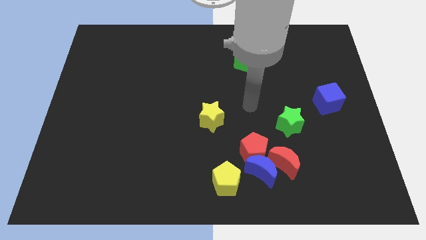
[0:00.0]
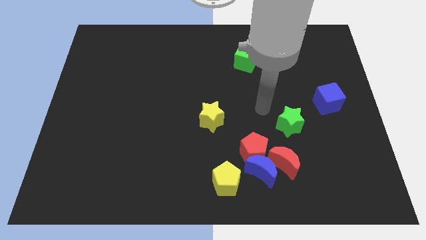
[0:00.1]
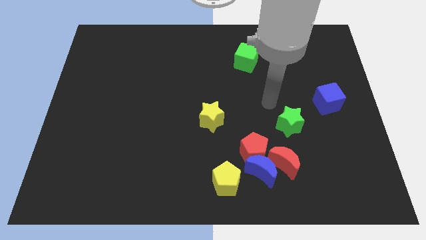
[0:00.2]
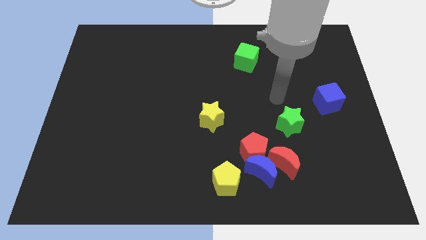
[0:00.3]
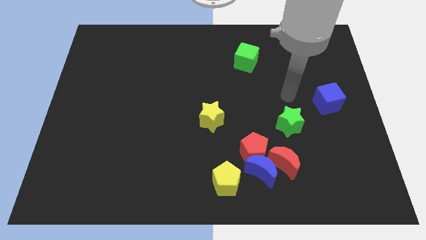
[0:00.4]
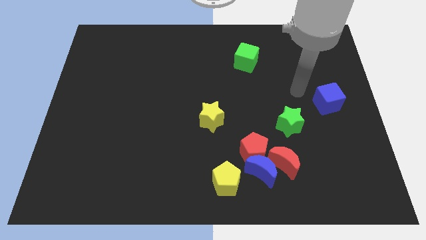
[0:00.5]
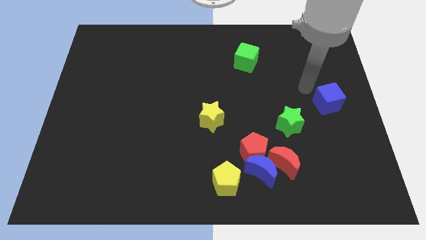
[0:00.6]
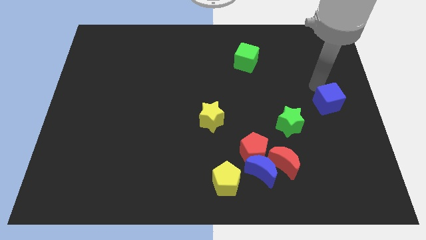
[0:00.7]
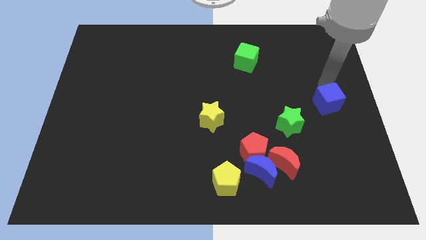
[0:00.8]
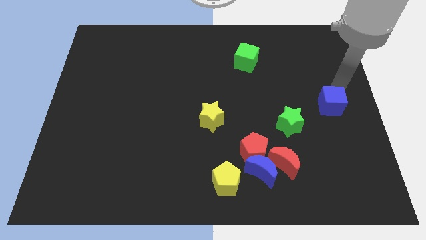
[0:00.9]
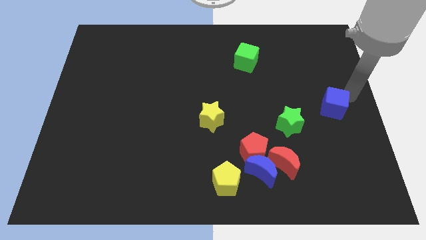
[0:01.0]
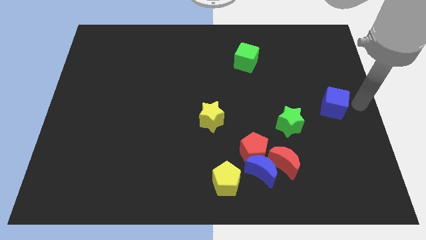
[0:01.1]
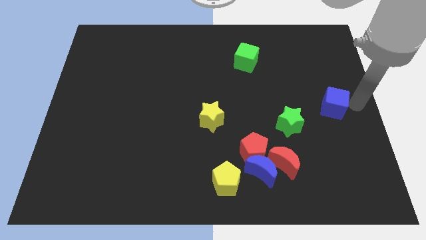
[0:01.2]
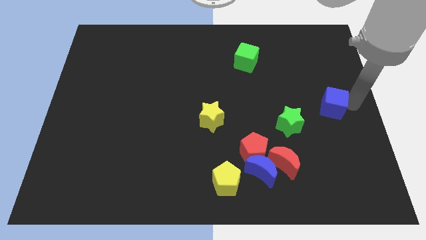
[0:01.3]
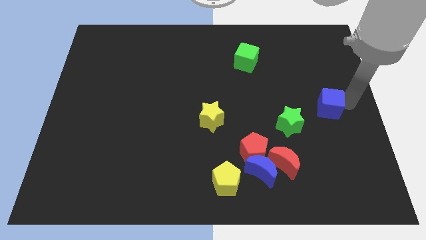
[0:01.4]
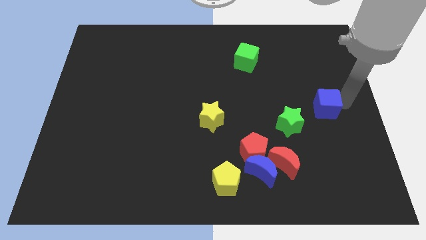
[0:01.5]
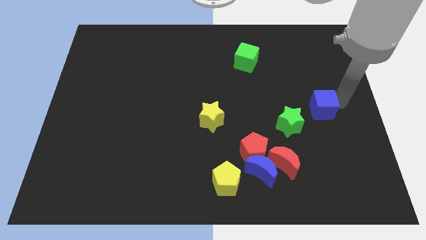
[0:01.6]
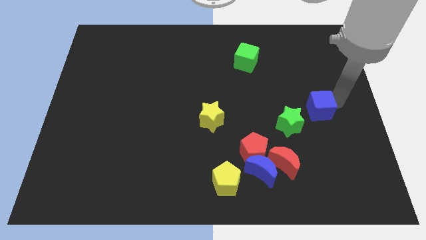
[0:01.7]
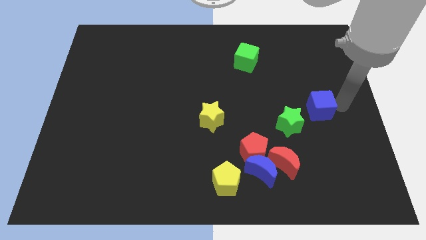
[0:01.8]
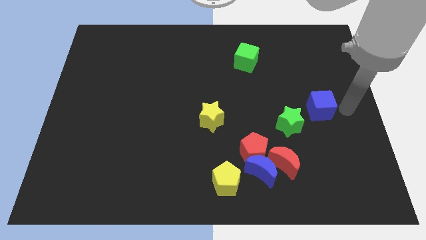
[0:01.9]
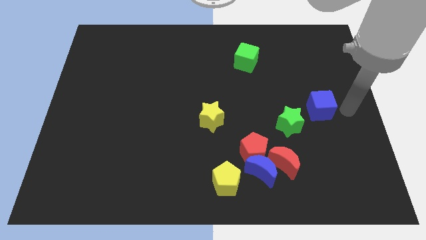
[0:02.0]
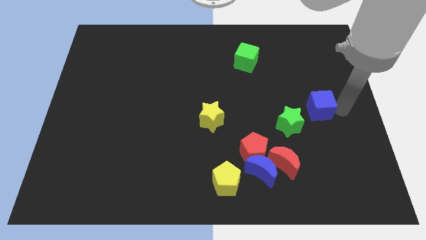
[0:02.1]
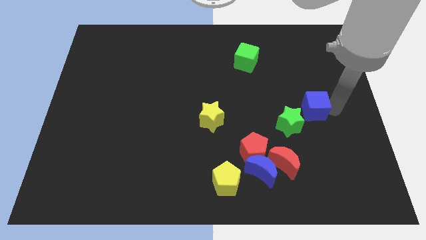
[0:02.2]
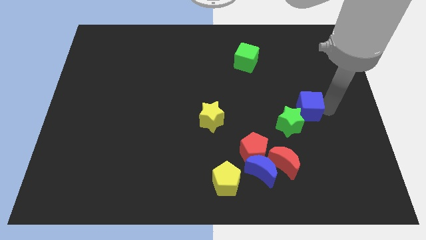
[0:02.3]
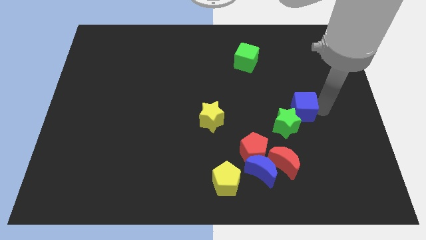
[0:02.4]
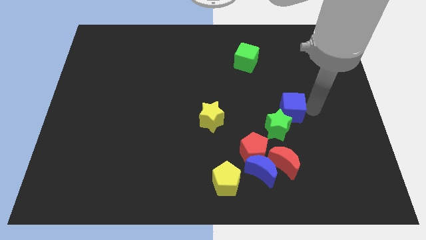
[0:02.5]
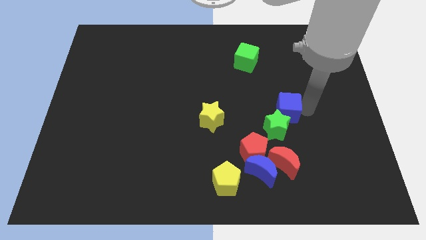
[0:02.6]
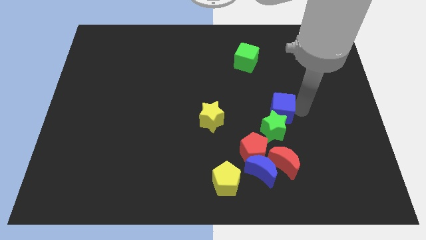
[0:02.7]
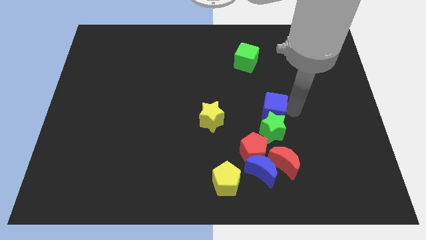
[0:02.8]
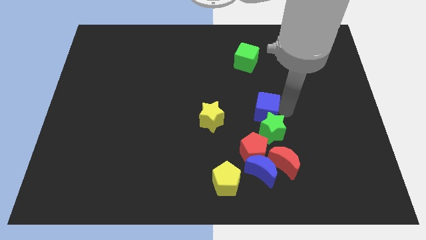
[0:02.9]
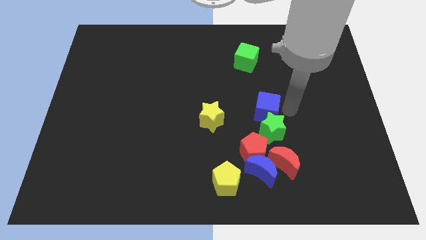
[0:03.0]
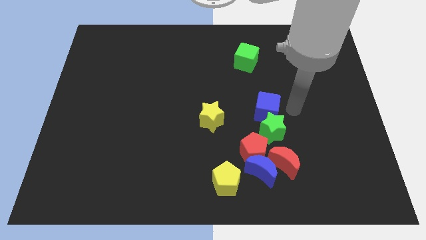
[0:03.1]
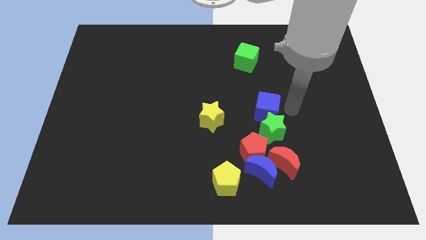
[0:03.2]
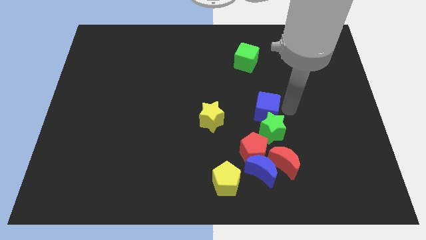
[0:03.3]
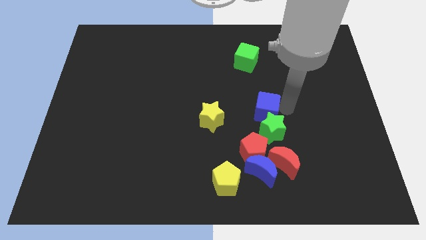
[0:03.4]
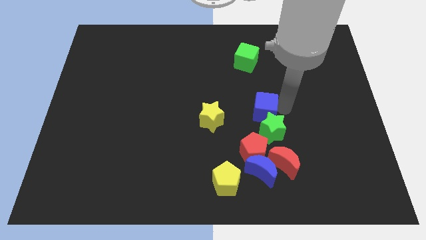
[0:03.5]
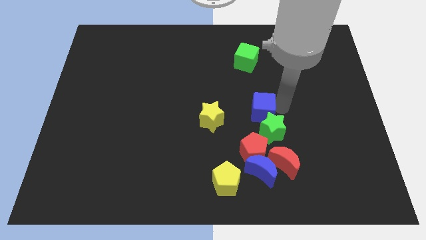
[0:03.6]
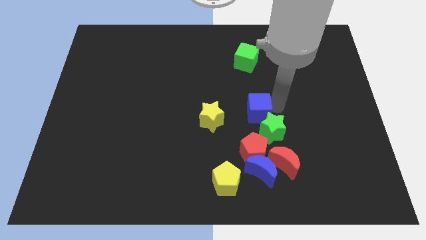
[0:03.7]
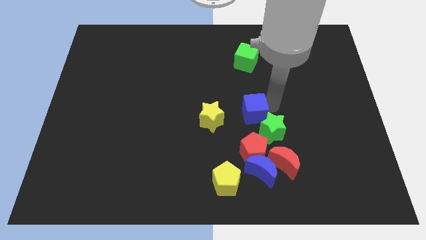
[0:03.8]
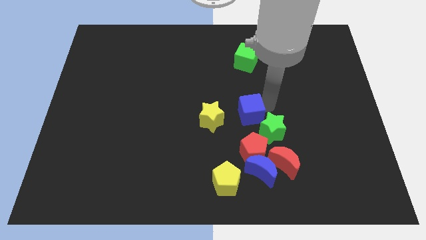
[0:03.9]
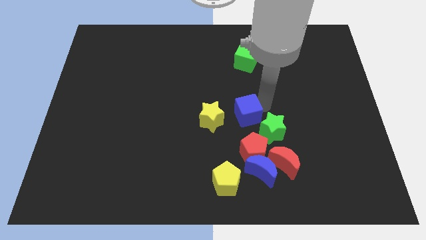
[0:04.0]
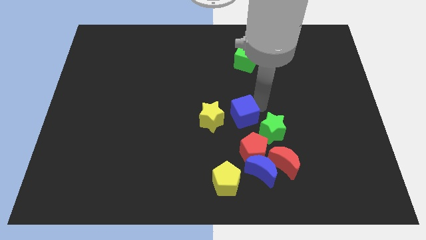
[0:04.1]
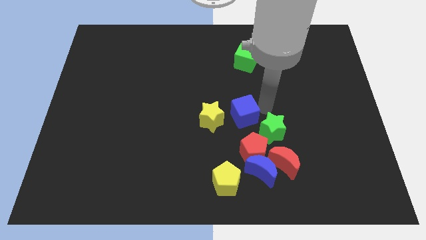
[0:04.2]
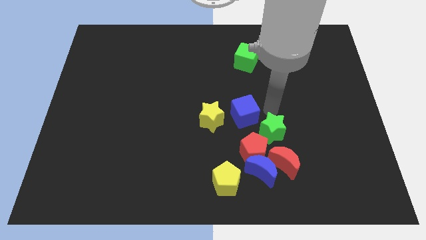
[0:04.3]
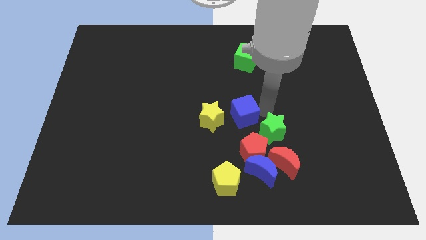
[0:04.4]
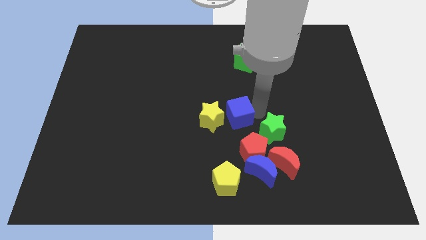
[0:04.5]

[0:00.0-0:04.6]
slide the blue cube towards the yellow star

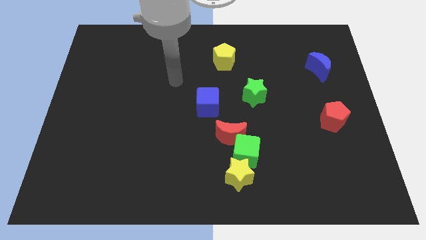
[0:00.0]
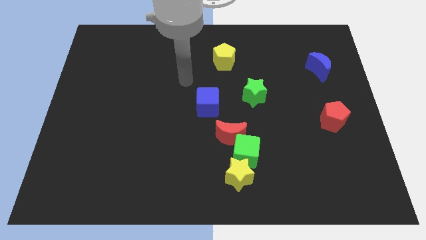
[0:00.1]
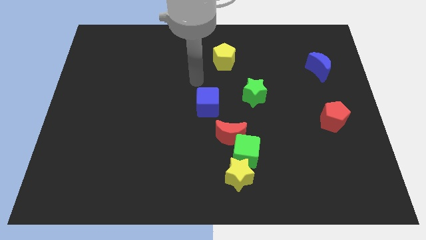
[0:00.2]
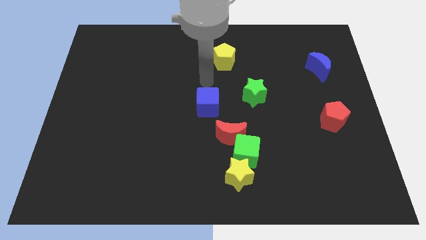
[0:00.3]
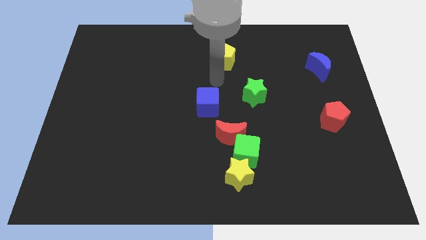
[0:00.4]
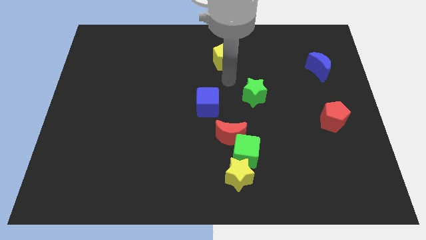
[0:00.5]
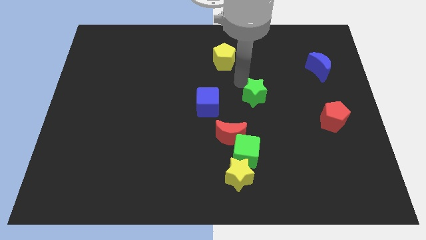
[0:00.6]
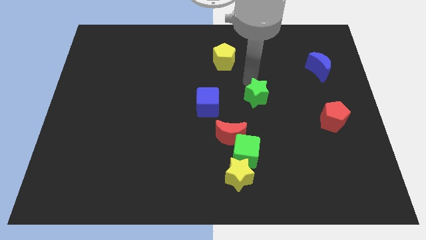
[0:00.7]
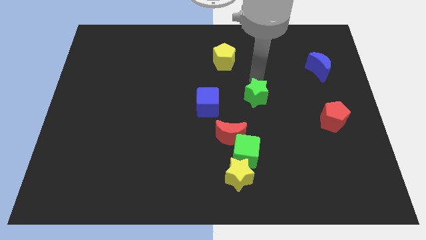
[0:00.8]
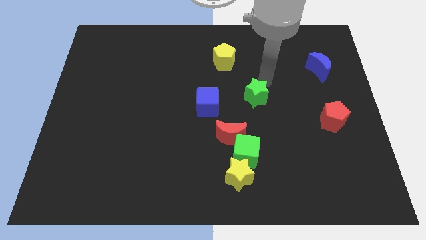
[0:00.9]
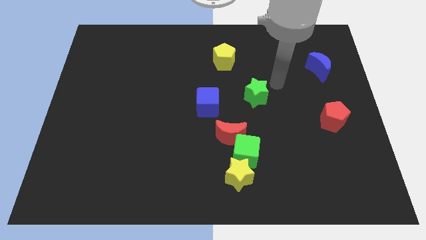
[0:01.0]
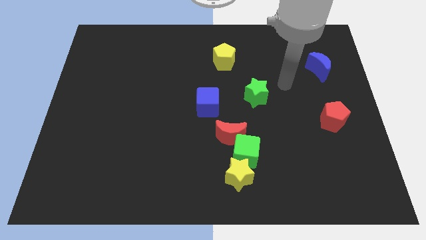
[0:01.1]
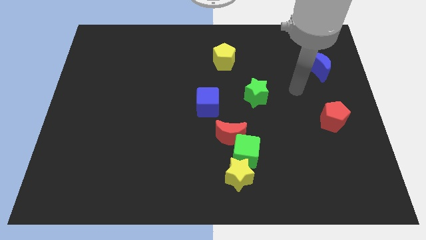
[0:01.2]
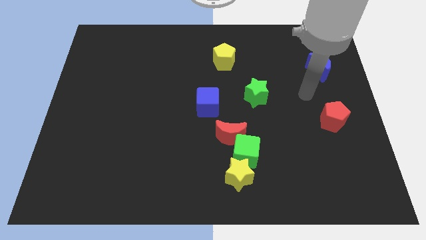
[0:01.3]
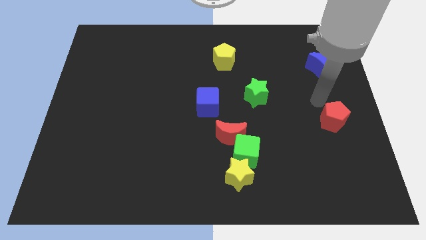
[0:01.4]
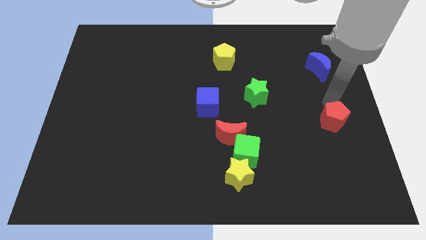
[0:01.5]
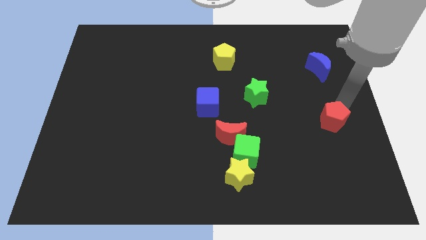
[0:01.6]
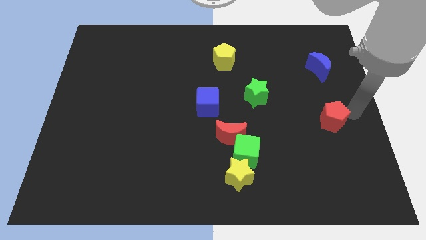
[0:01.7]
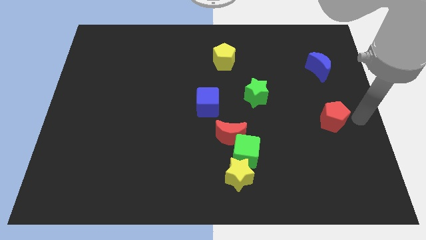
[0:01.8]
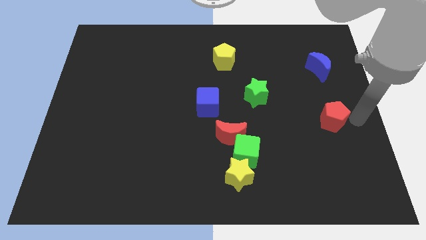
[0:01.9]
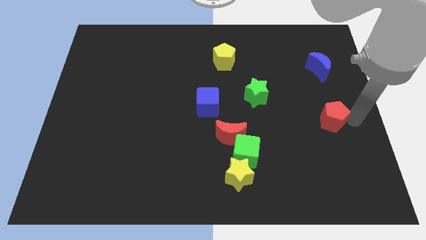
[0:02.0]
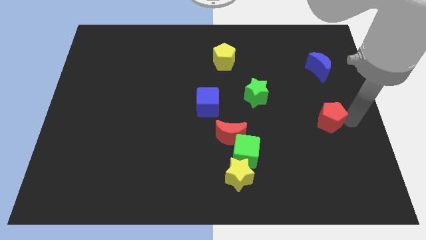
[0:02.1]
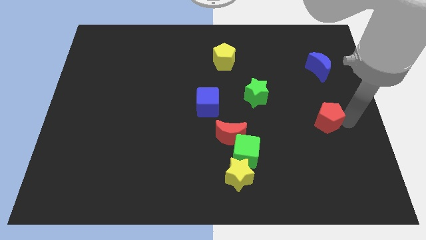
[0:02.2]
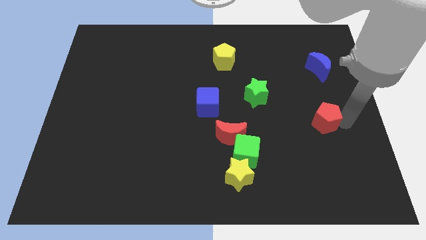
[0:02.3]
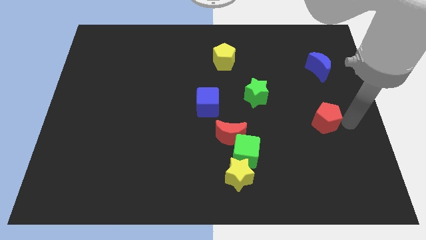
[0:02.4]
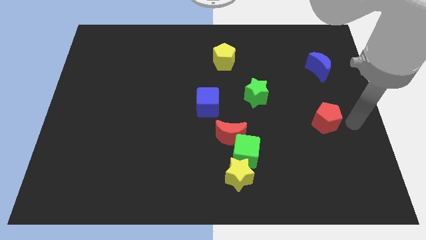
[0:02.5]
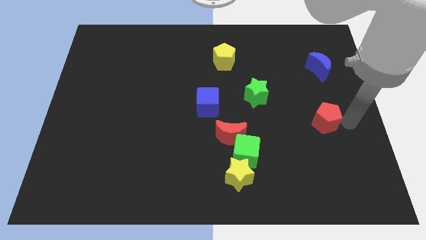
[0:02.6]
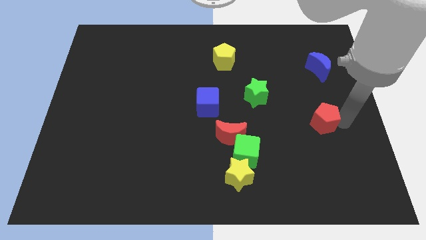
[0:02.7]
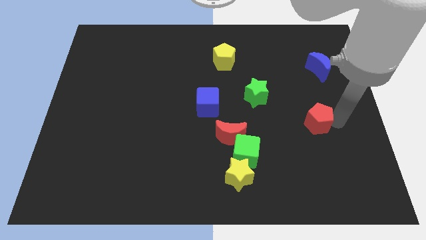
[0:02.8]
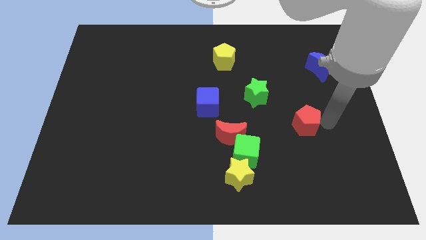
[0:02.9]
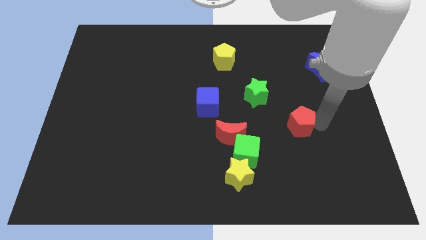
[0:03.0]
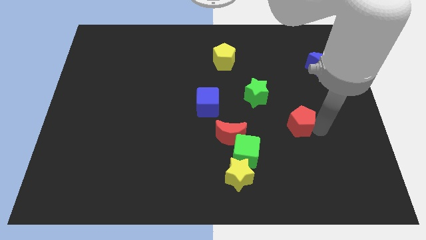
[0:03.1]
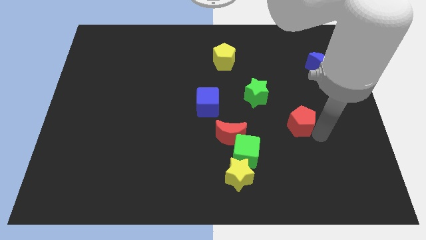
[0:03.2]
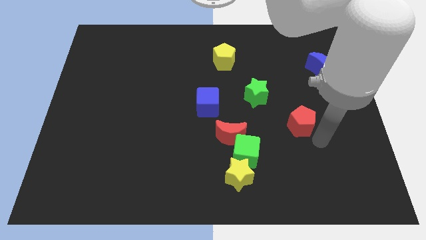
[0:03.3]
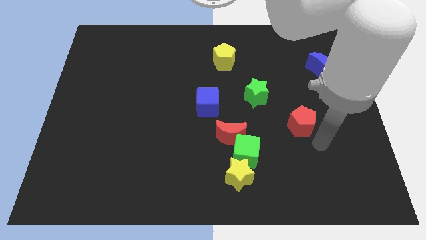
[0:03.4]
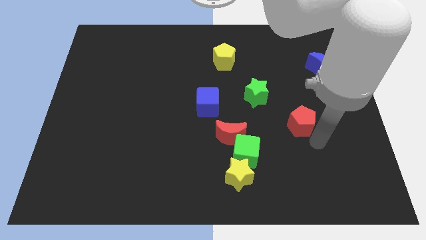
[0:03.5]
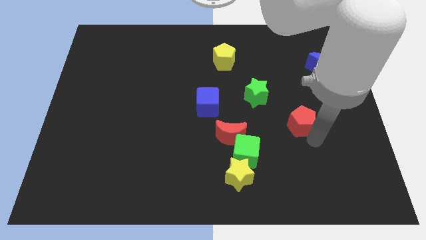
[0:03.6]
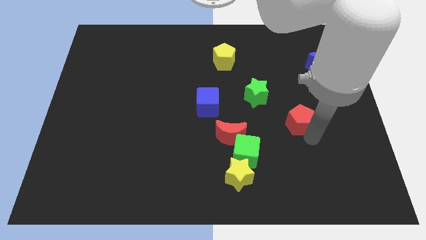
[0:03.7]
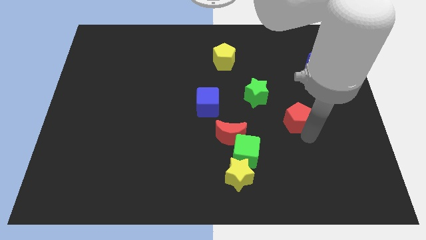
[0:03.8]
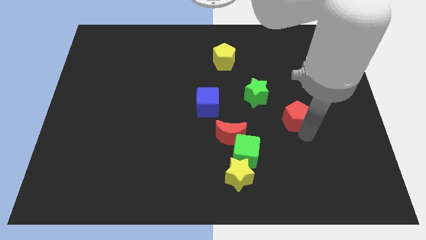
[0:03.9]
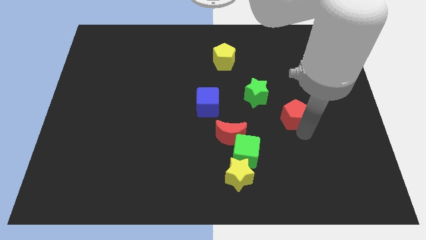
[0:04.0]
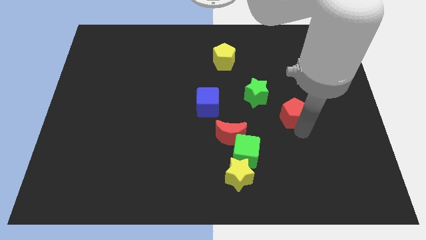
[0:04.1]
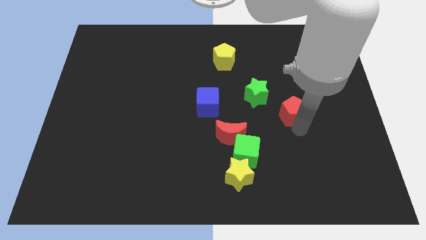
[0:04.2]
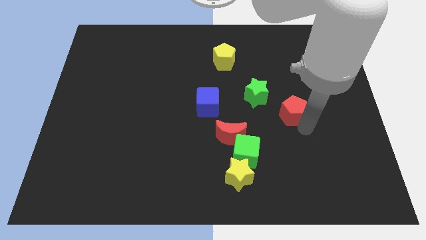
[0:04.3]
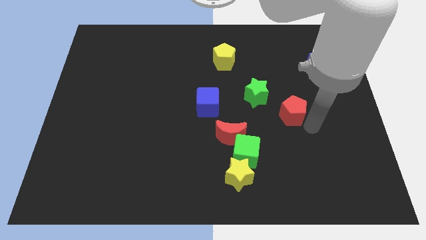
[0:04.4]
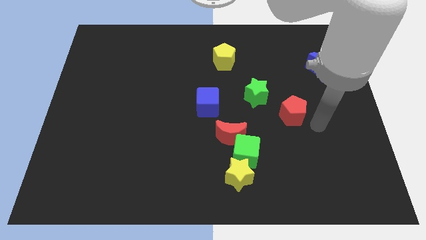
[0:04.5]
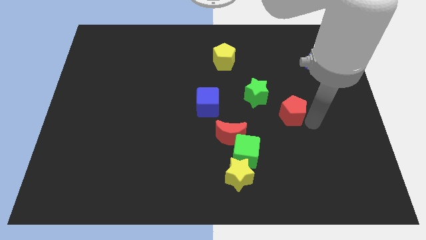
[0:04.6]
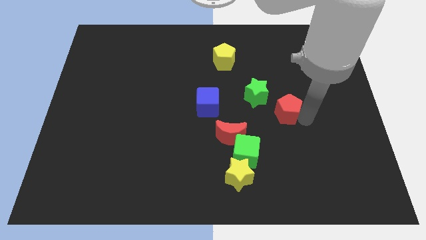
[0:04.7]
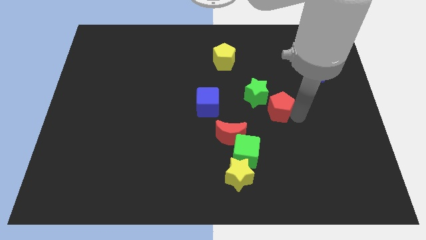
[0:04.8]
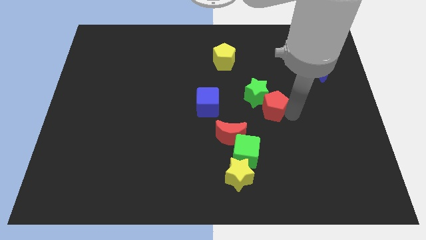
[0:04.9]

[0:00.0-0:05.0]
put the red pentagon towards the green star
